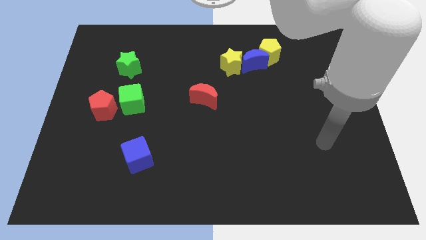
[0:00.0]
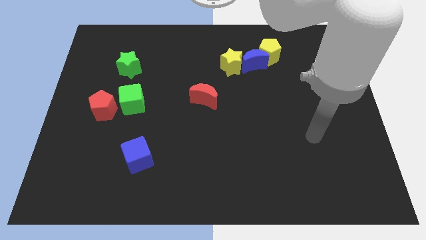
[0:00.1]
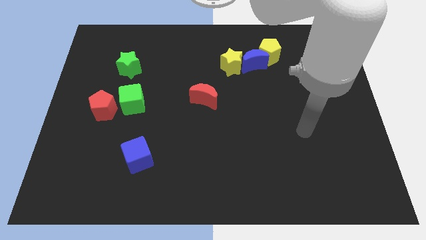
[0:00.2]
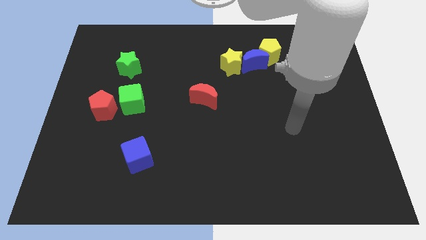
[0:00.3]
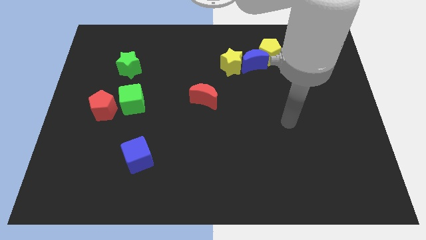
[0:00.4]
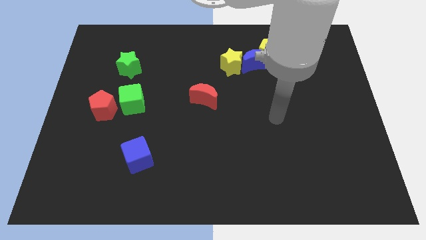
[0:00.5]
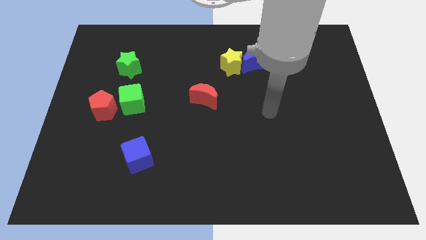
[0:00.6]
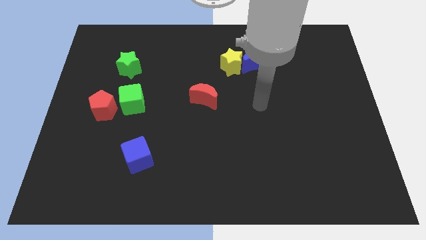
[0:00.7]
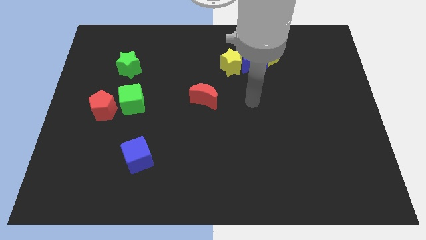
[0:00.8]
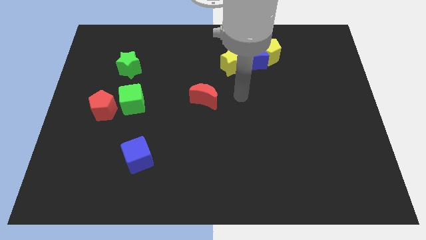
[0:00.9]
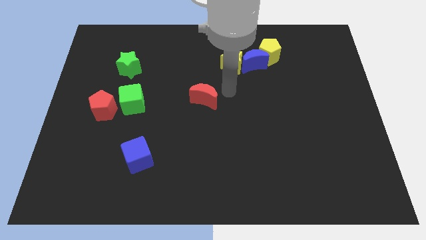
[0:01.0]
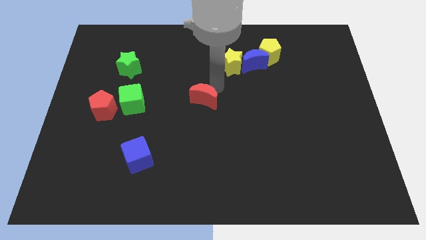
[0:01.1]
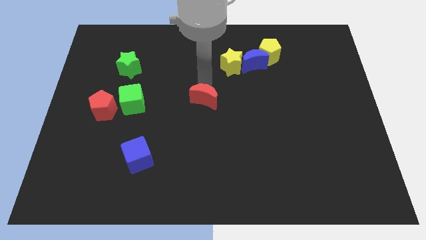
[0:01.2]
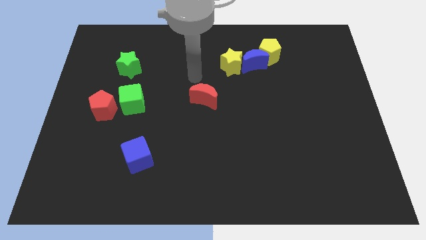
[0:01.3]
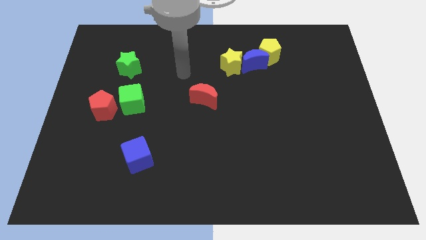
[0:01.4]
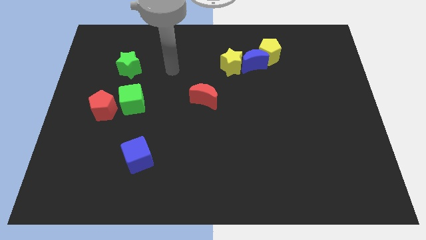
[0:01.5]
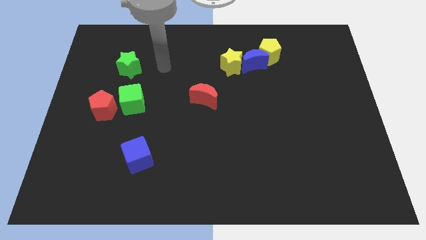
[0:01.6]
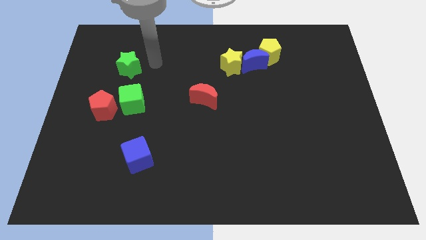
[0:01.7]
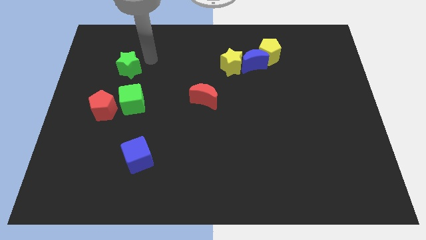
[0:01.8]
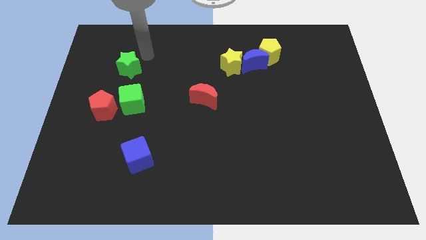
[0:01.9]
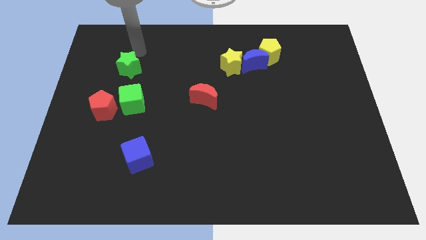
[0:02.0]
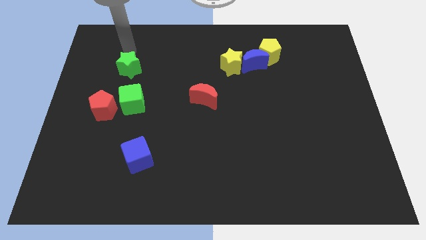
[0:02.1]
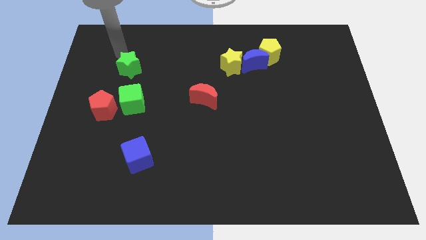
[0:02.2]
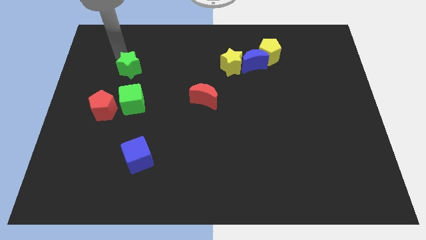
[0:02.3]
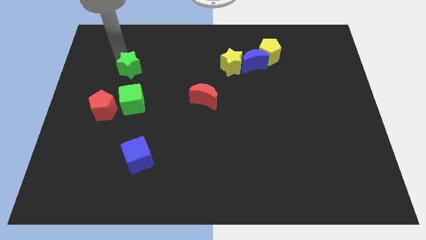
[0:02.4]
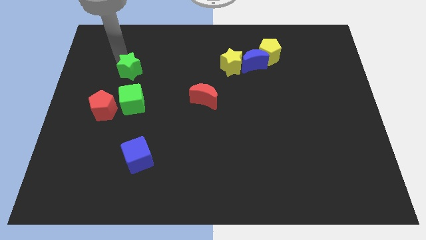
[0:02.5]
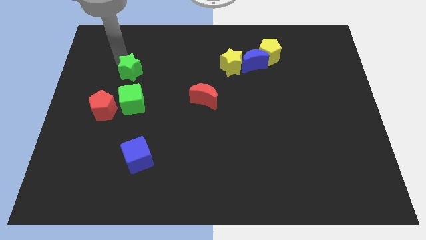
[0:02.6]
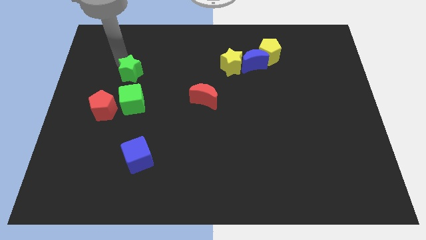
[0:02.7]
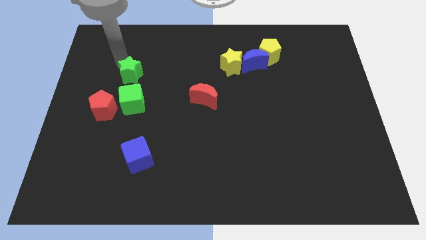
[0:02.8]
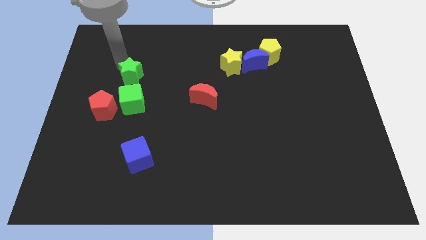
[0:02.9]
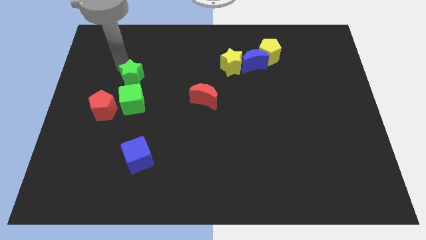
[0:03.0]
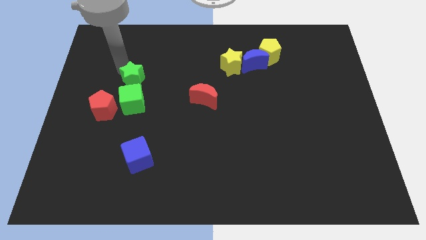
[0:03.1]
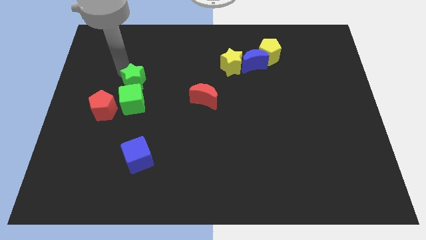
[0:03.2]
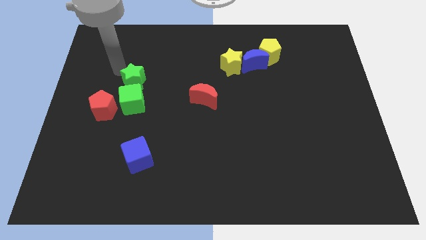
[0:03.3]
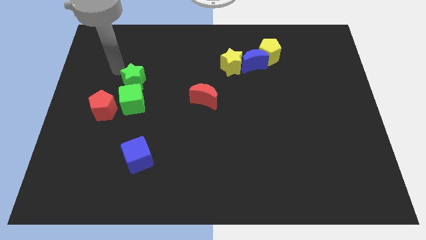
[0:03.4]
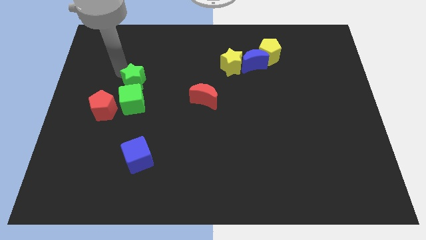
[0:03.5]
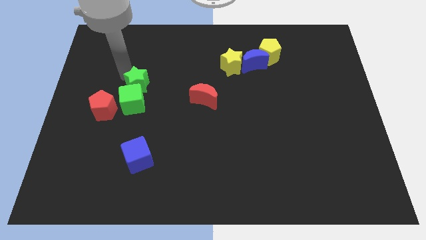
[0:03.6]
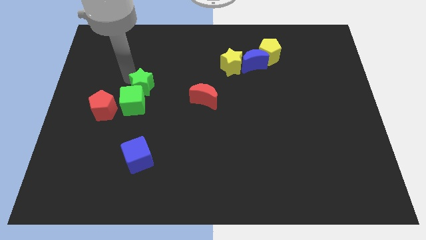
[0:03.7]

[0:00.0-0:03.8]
push the green star downwards and then right a little

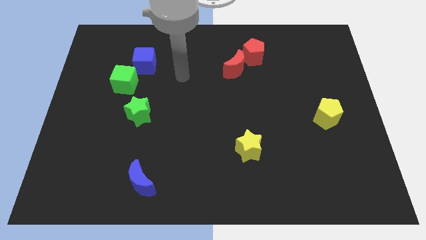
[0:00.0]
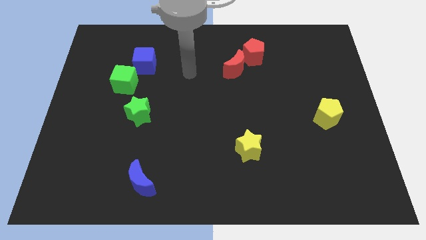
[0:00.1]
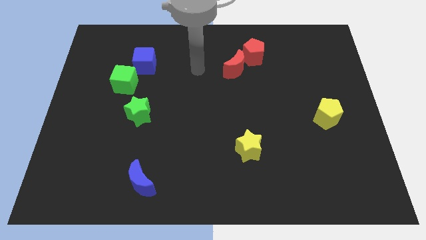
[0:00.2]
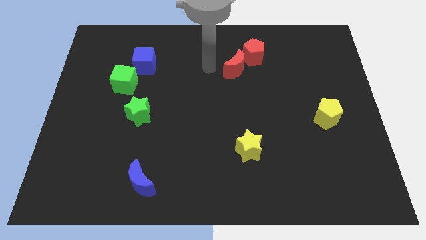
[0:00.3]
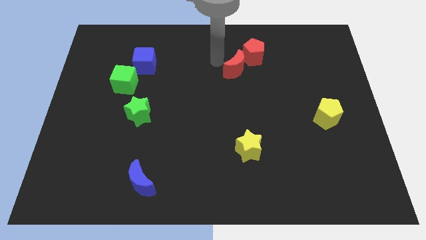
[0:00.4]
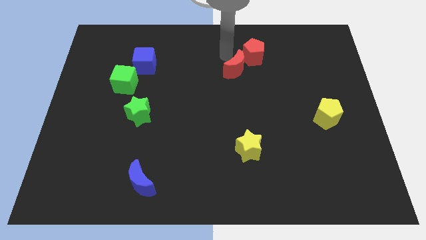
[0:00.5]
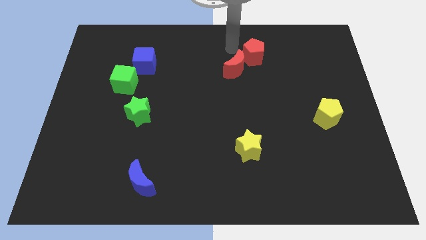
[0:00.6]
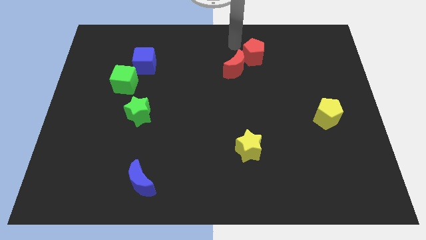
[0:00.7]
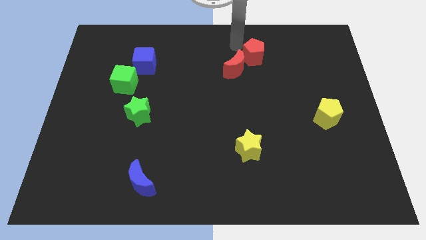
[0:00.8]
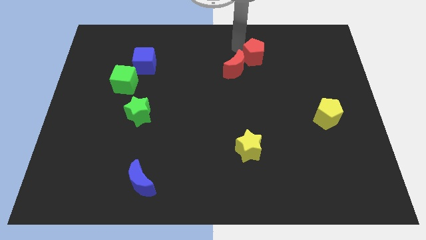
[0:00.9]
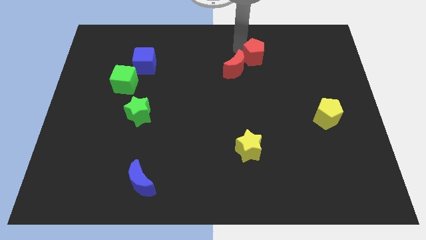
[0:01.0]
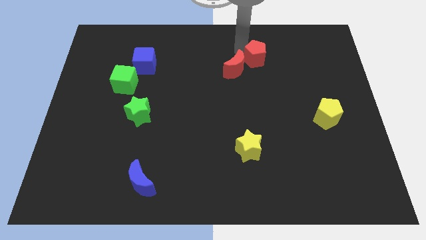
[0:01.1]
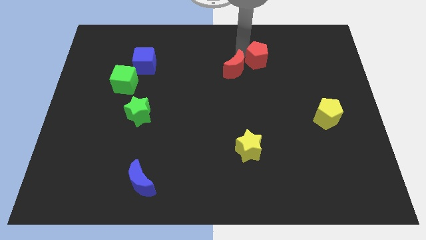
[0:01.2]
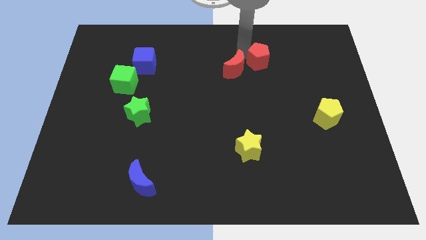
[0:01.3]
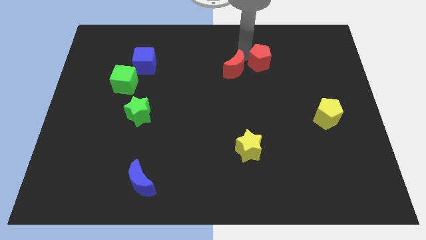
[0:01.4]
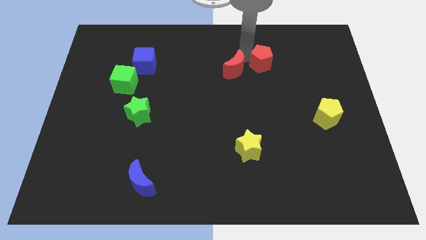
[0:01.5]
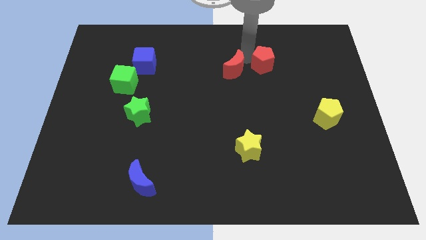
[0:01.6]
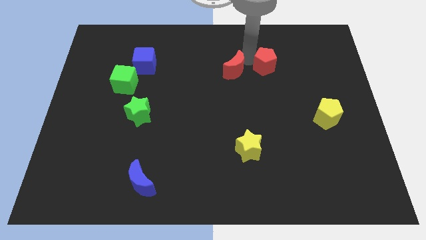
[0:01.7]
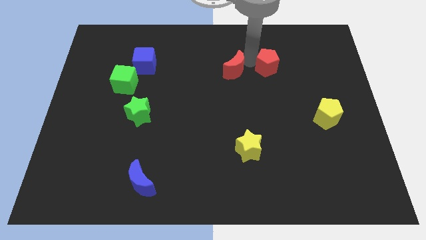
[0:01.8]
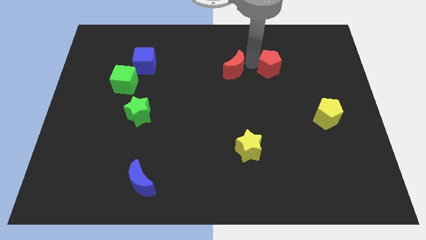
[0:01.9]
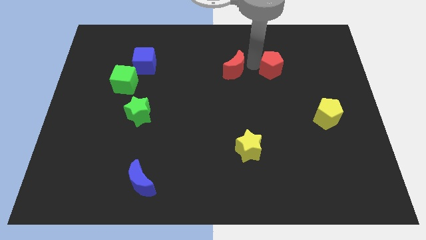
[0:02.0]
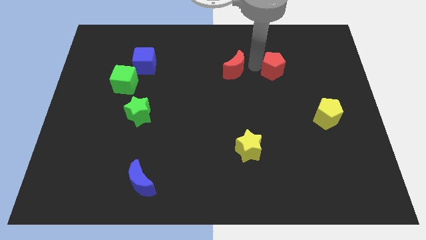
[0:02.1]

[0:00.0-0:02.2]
move the red pentagon a little downwards and to the right

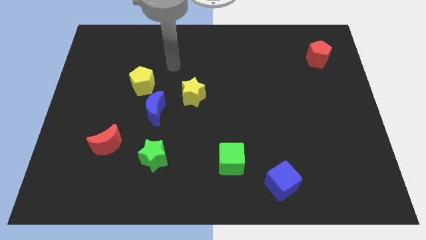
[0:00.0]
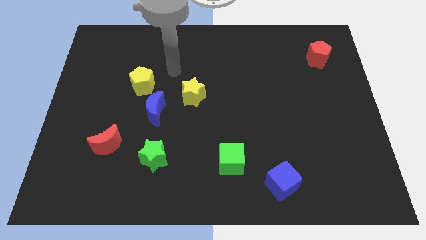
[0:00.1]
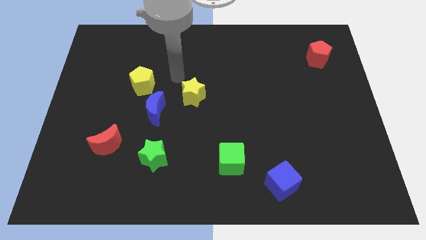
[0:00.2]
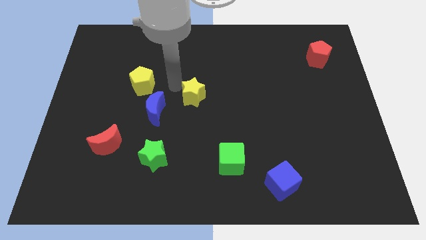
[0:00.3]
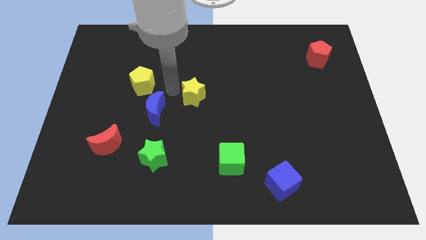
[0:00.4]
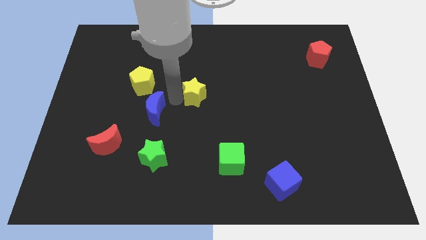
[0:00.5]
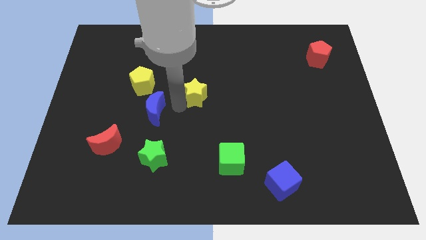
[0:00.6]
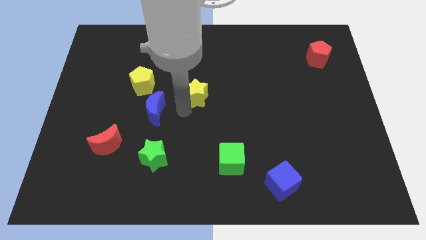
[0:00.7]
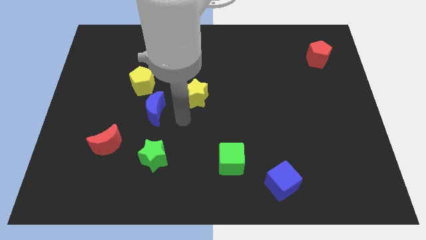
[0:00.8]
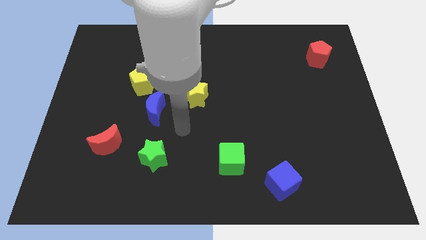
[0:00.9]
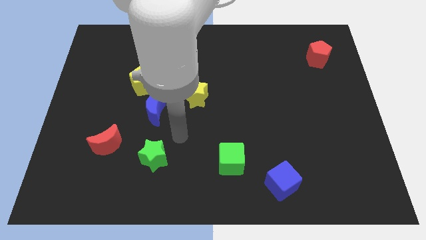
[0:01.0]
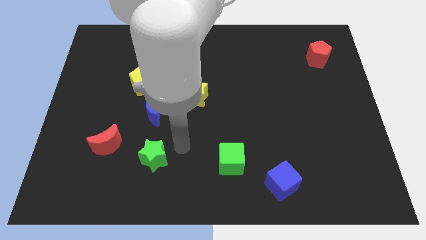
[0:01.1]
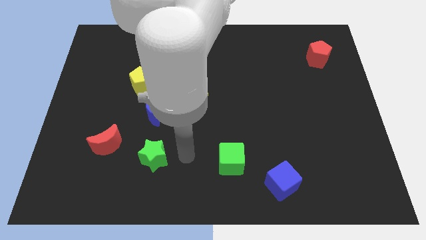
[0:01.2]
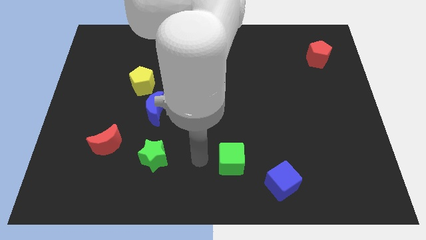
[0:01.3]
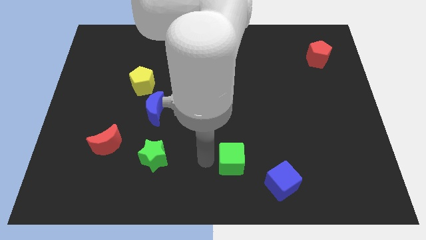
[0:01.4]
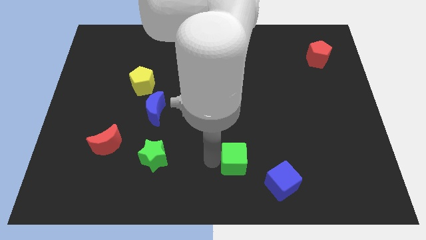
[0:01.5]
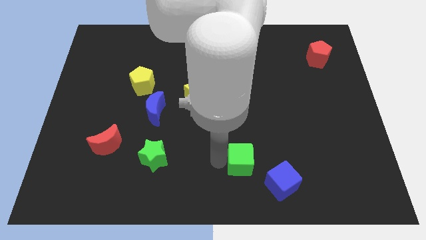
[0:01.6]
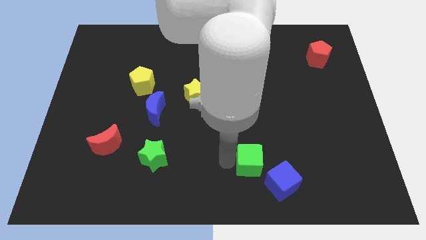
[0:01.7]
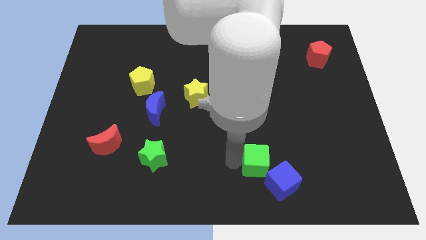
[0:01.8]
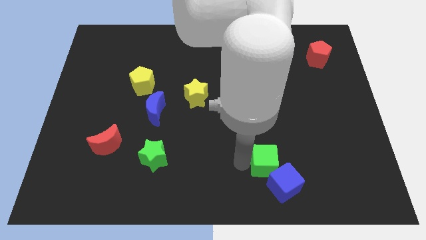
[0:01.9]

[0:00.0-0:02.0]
move the green cube a bit right

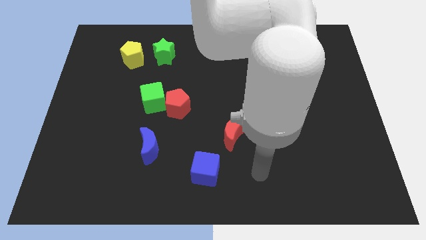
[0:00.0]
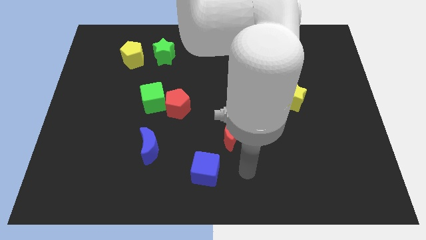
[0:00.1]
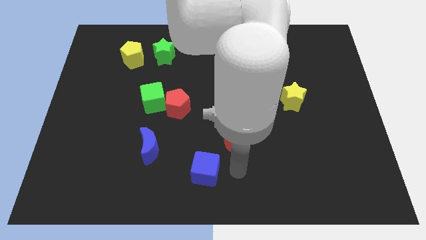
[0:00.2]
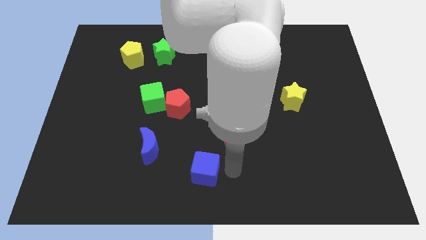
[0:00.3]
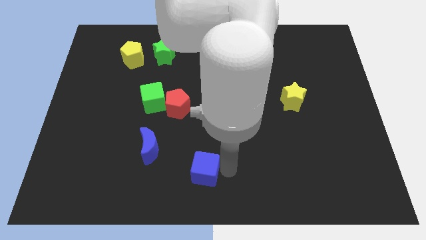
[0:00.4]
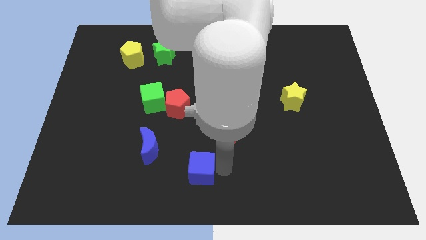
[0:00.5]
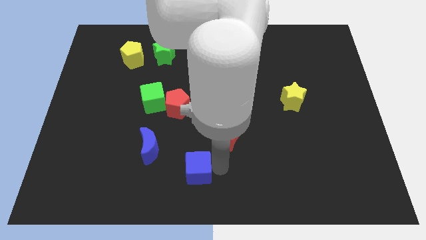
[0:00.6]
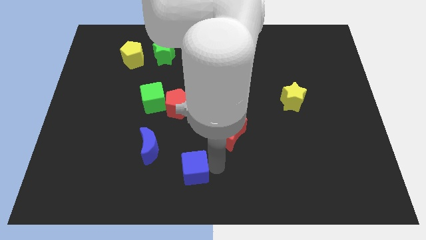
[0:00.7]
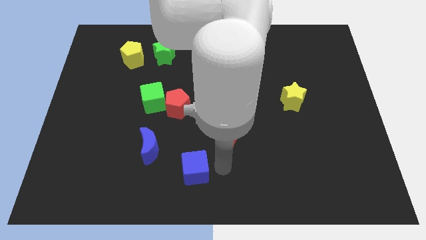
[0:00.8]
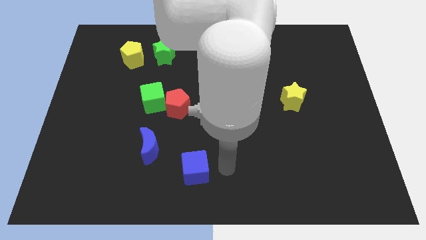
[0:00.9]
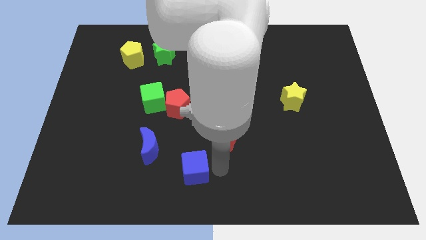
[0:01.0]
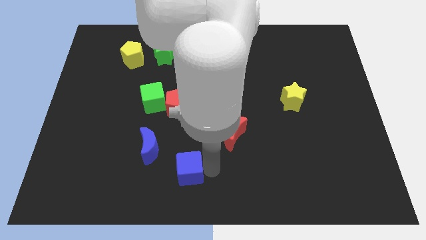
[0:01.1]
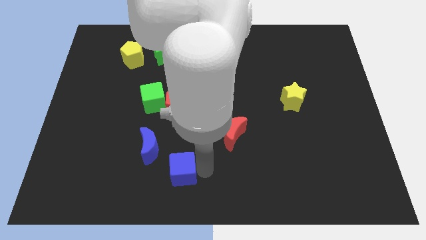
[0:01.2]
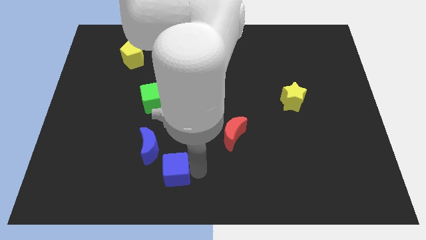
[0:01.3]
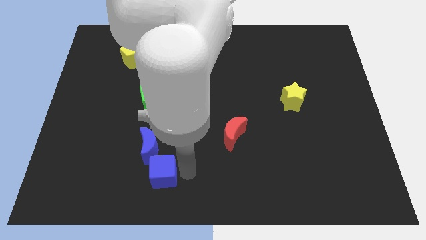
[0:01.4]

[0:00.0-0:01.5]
slightly push the blue cube to the left
